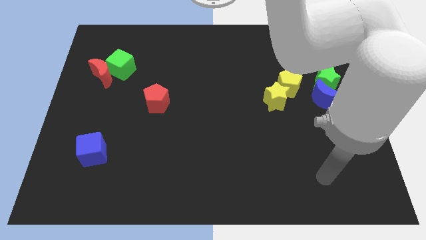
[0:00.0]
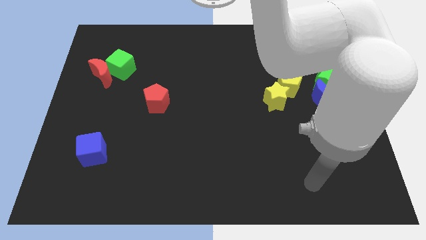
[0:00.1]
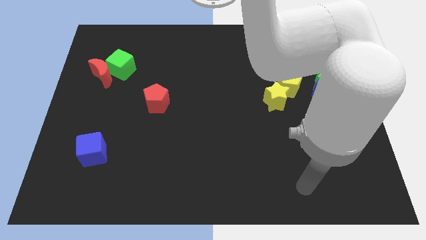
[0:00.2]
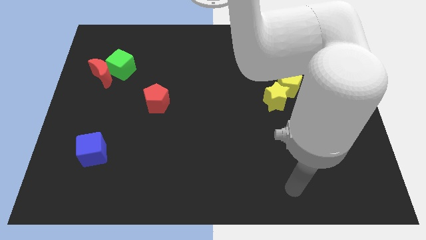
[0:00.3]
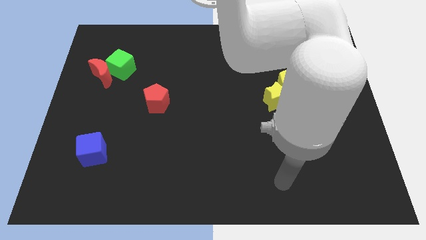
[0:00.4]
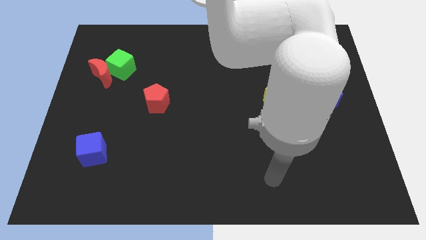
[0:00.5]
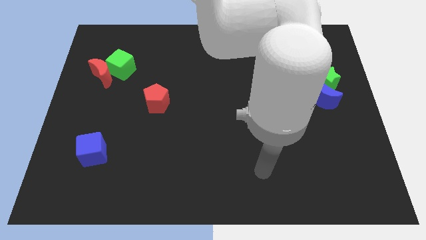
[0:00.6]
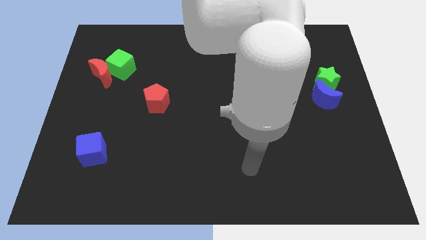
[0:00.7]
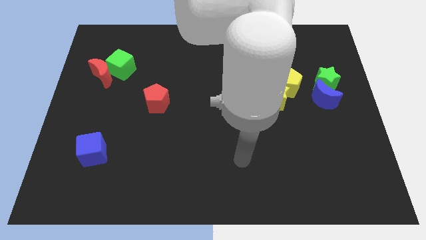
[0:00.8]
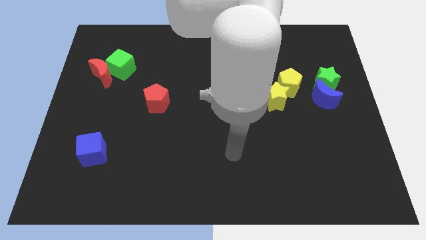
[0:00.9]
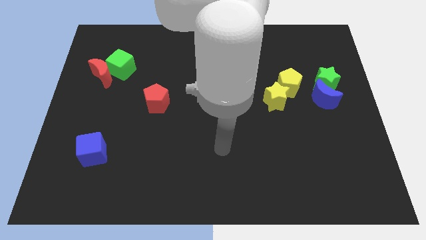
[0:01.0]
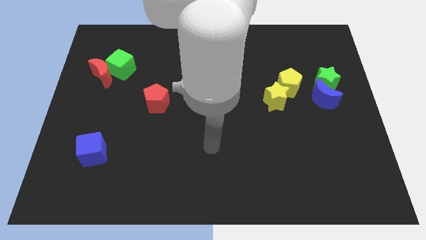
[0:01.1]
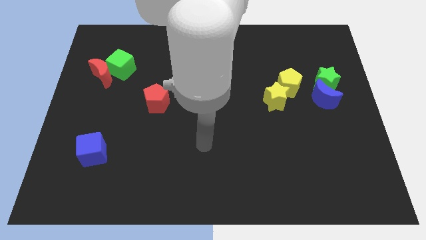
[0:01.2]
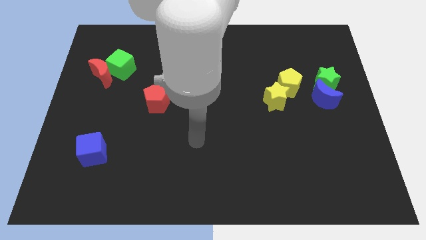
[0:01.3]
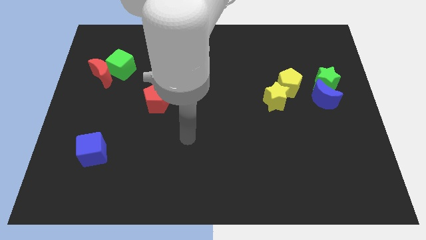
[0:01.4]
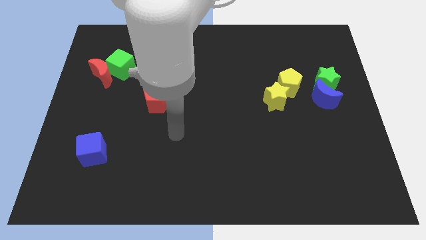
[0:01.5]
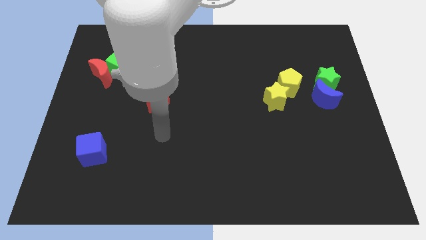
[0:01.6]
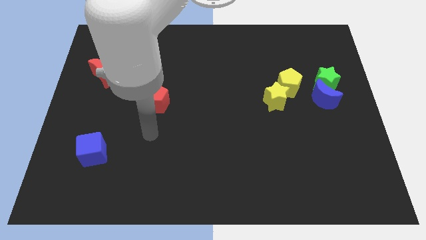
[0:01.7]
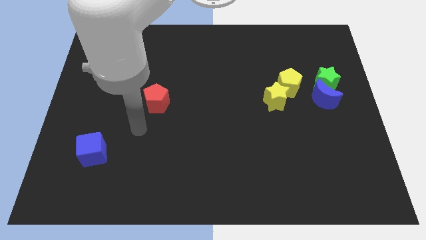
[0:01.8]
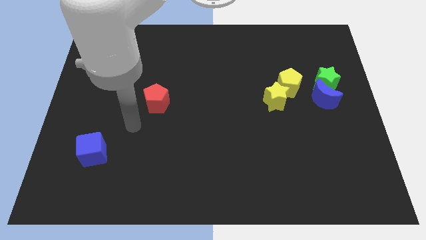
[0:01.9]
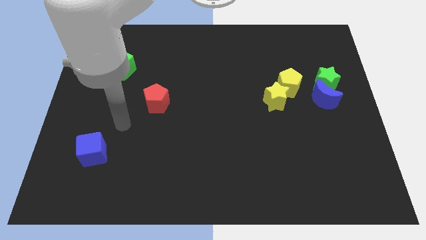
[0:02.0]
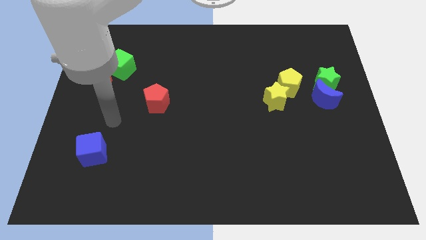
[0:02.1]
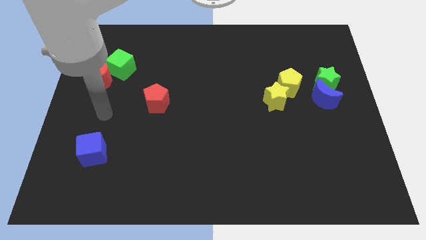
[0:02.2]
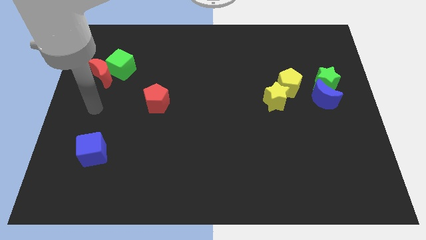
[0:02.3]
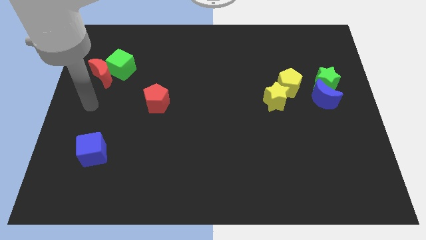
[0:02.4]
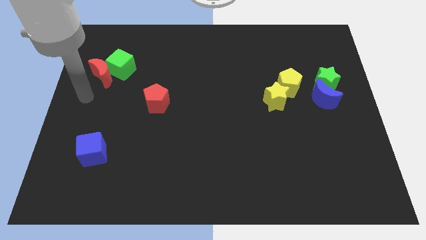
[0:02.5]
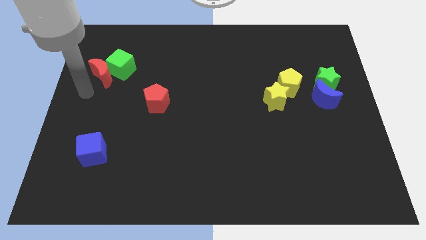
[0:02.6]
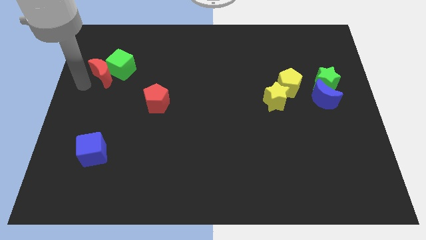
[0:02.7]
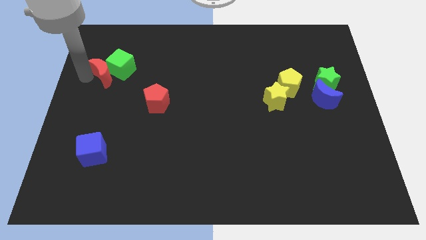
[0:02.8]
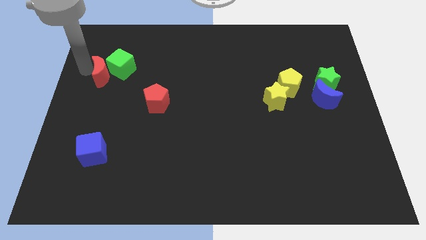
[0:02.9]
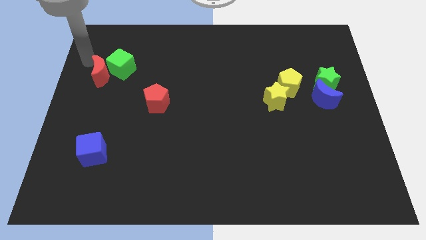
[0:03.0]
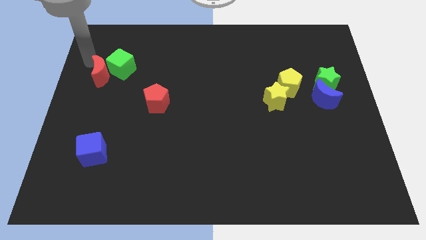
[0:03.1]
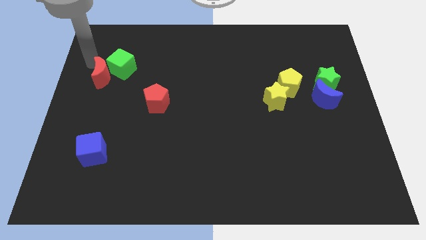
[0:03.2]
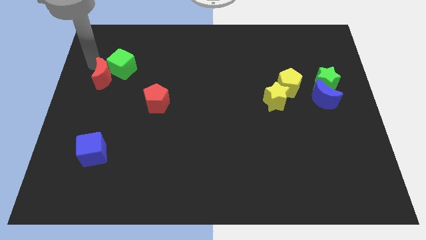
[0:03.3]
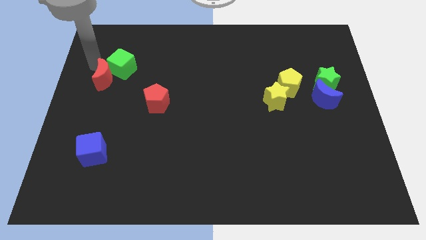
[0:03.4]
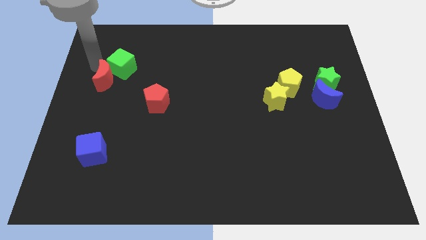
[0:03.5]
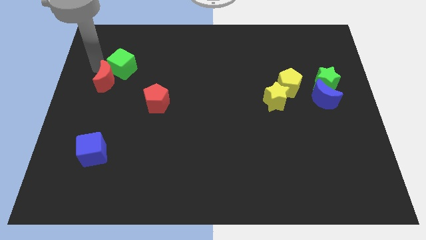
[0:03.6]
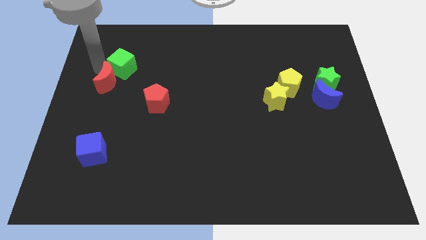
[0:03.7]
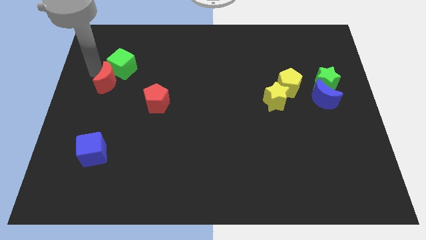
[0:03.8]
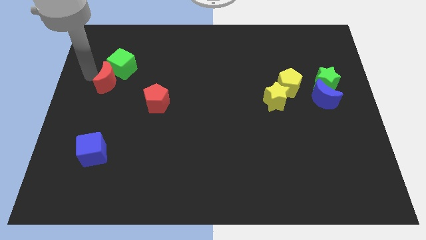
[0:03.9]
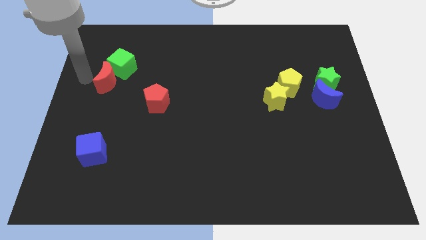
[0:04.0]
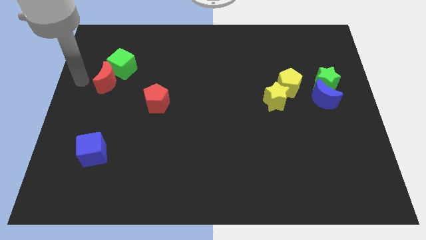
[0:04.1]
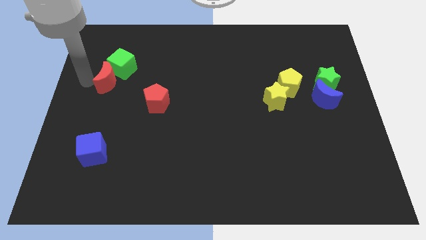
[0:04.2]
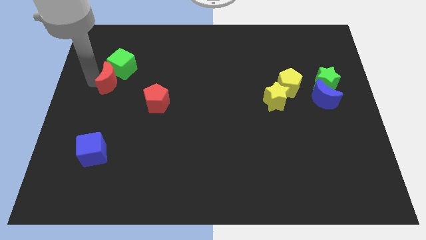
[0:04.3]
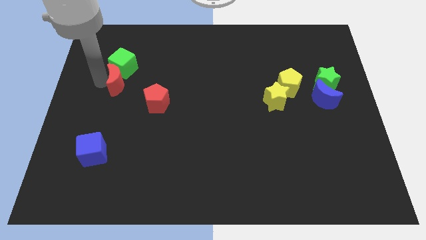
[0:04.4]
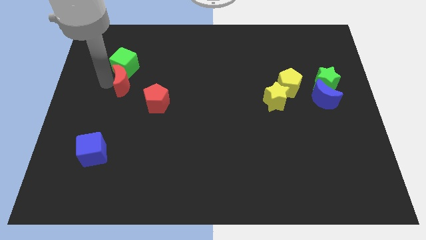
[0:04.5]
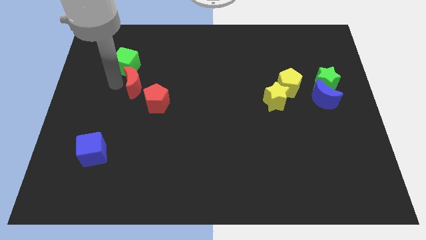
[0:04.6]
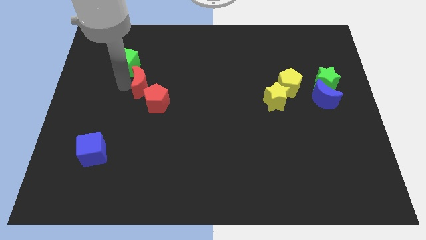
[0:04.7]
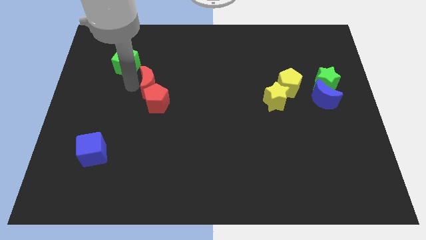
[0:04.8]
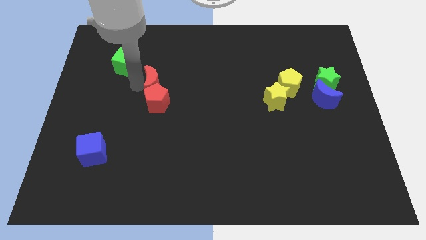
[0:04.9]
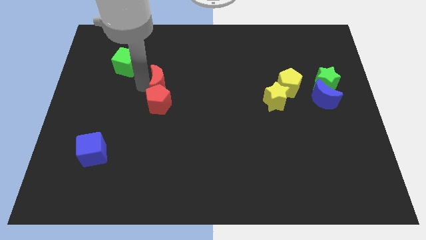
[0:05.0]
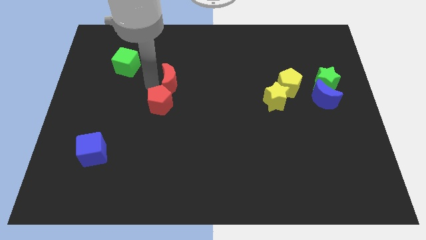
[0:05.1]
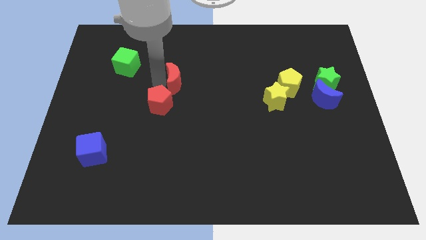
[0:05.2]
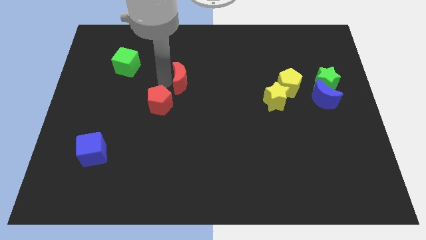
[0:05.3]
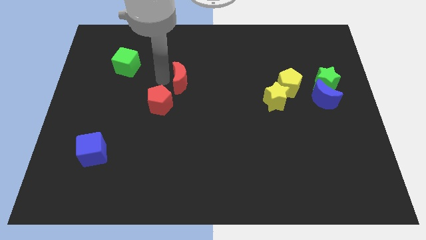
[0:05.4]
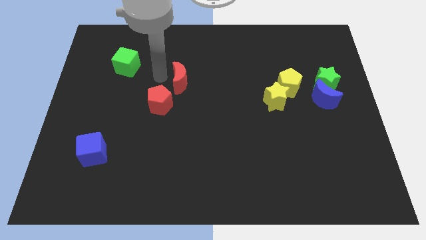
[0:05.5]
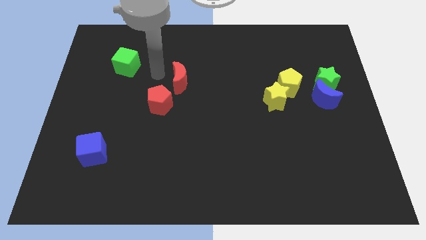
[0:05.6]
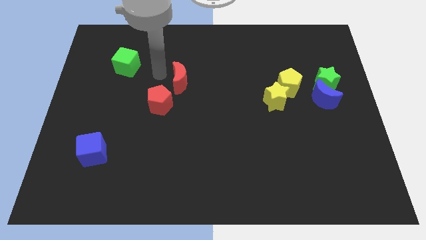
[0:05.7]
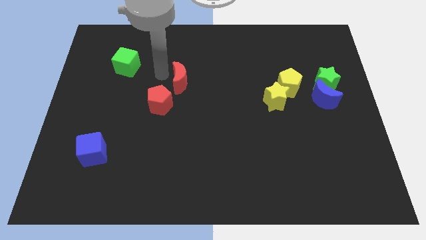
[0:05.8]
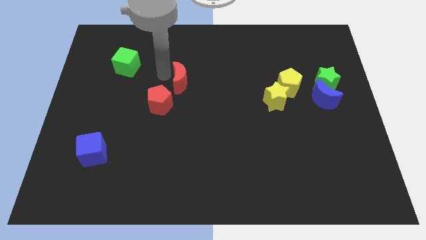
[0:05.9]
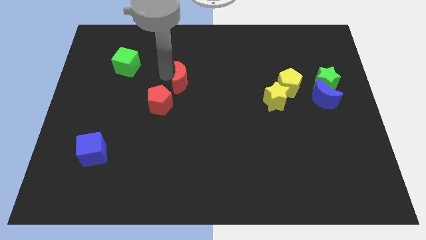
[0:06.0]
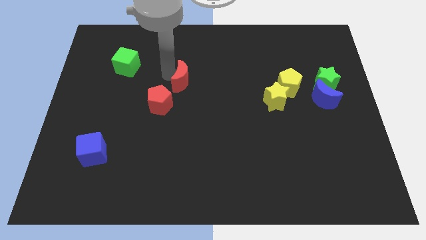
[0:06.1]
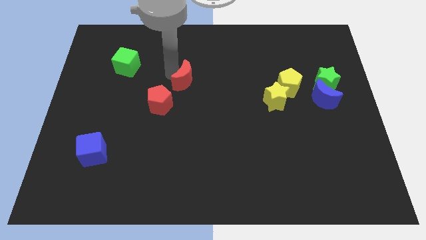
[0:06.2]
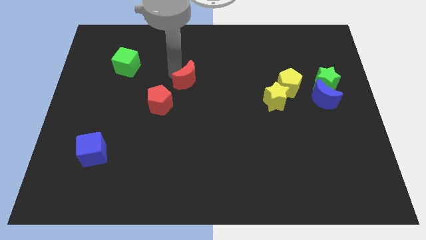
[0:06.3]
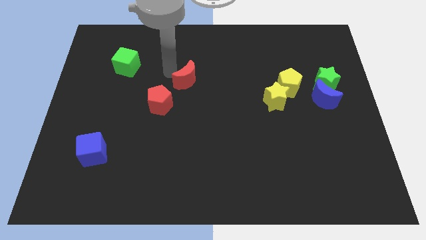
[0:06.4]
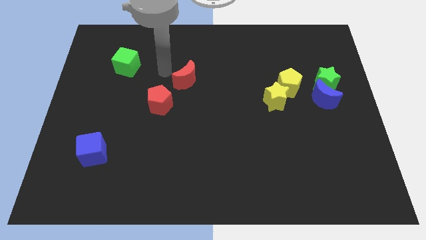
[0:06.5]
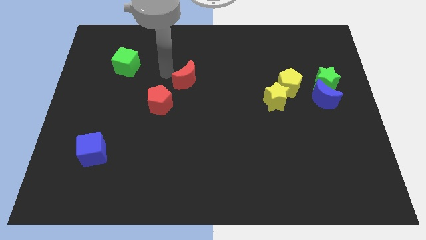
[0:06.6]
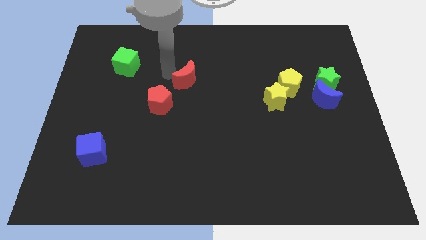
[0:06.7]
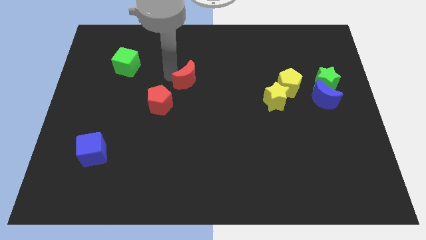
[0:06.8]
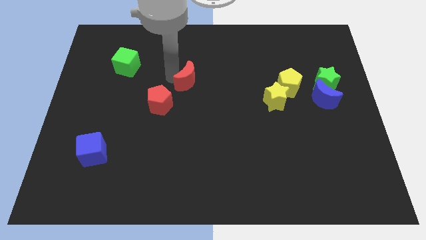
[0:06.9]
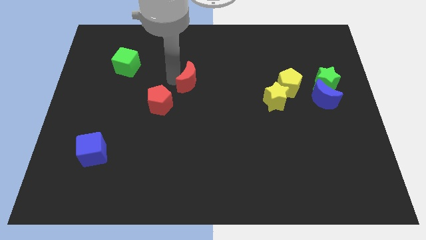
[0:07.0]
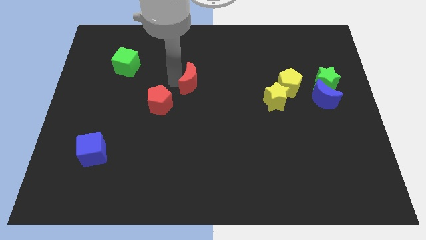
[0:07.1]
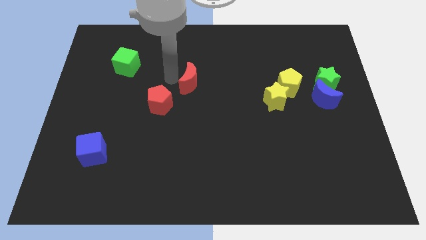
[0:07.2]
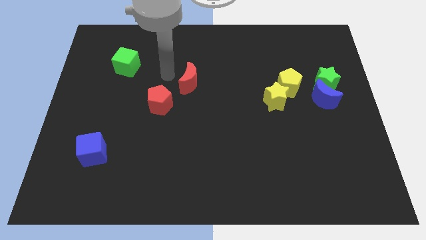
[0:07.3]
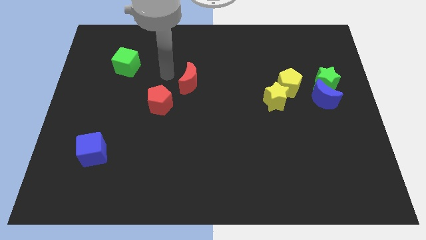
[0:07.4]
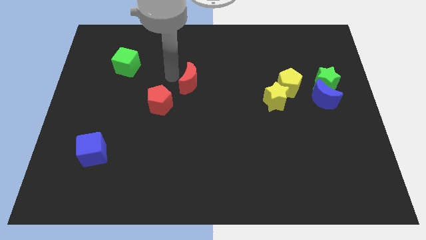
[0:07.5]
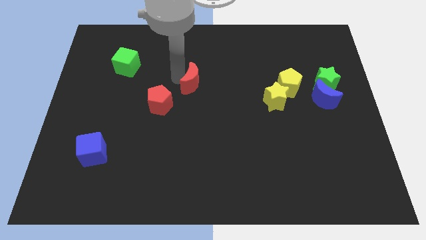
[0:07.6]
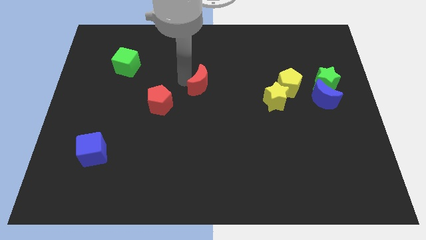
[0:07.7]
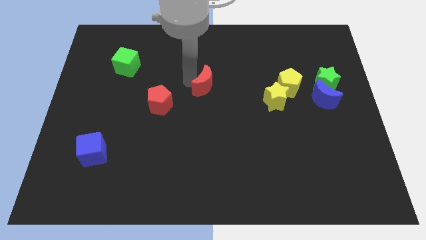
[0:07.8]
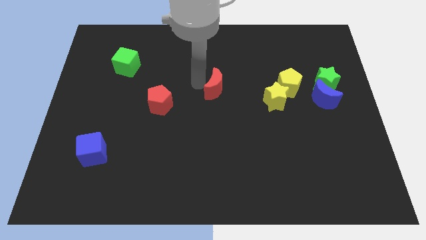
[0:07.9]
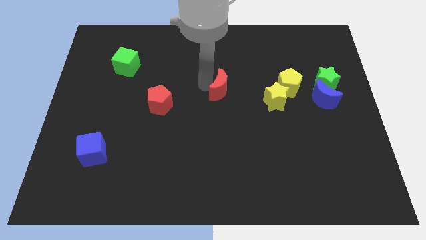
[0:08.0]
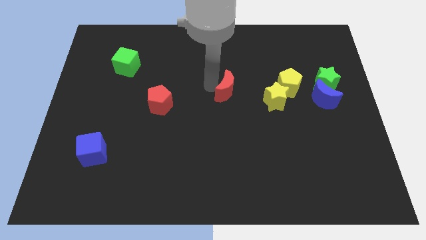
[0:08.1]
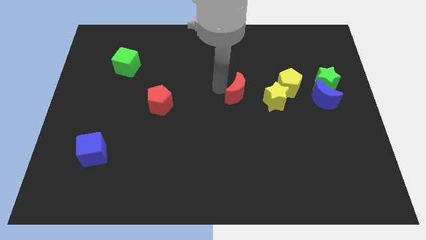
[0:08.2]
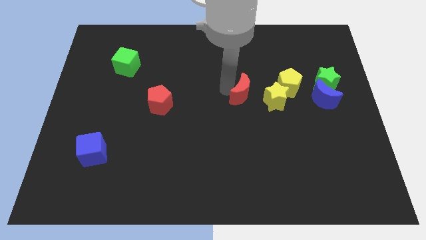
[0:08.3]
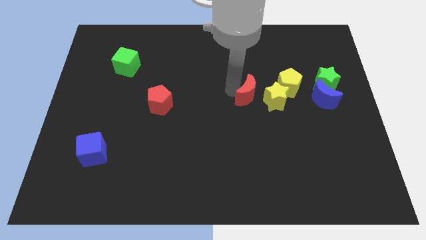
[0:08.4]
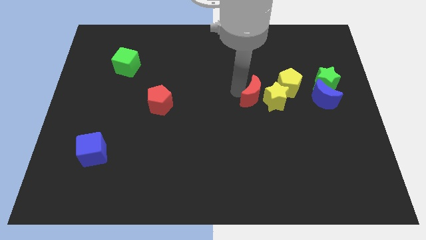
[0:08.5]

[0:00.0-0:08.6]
put the red moon close to the yellow star
